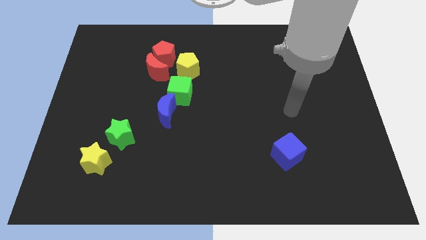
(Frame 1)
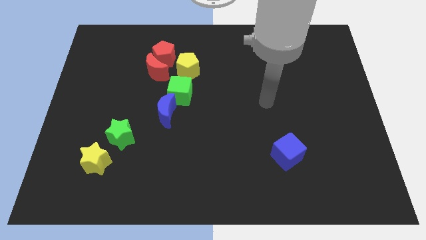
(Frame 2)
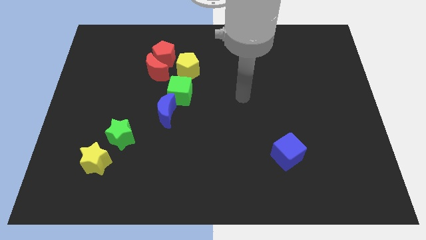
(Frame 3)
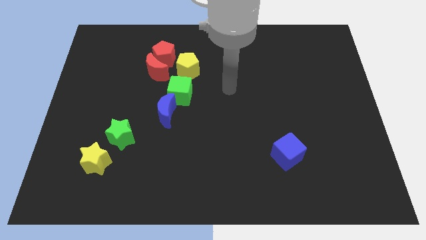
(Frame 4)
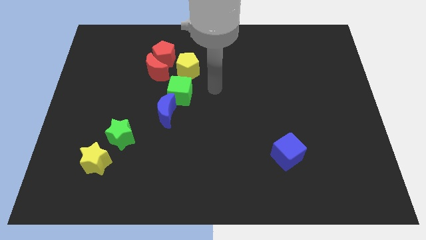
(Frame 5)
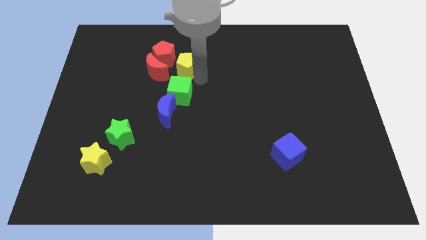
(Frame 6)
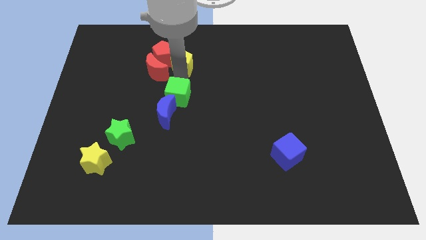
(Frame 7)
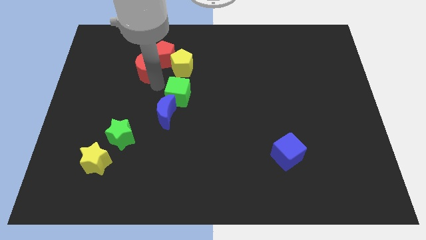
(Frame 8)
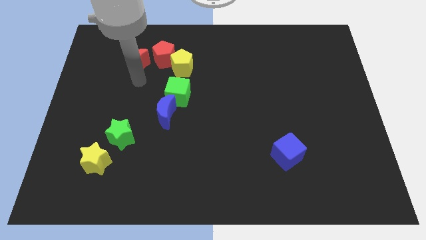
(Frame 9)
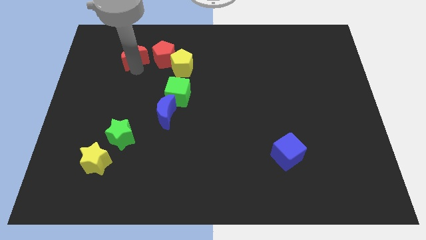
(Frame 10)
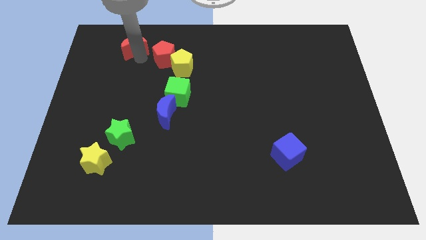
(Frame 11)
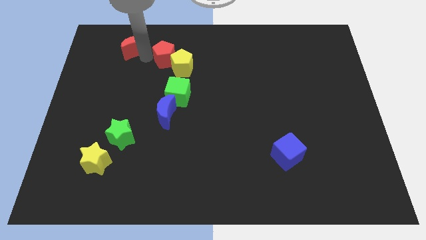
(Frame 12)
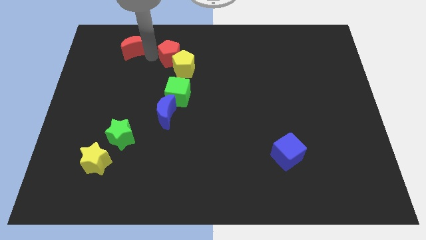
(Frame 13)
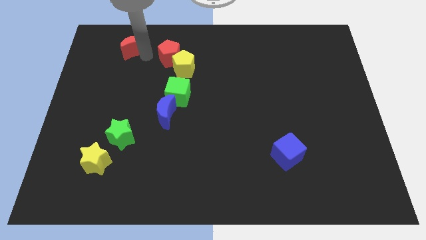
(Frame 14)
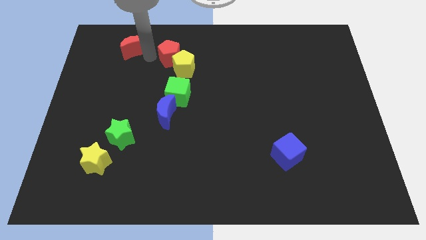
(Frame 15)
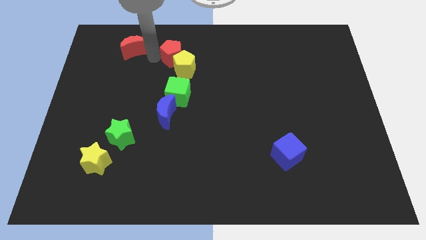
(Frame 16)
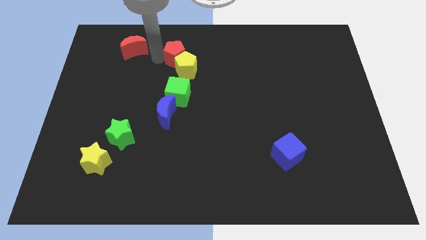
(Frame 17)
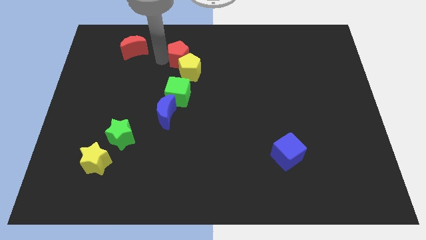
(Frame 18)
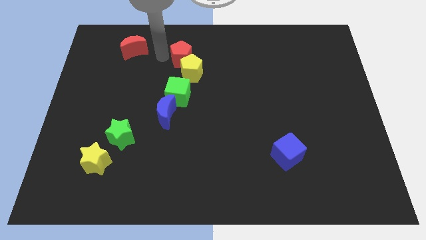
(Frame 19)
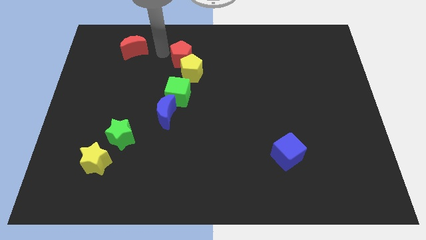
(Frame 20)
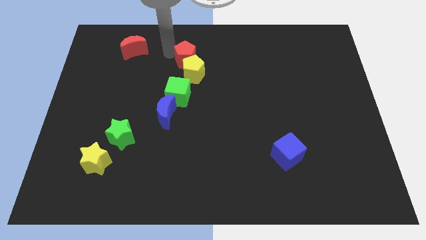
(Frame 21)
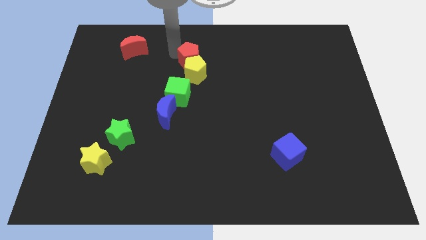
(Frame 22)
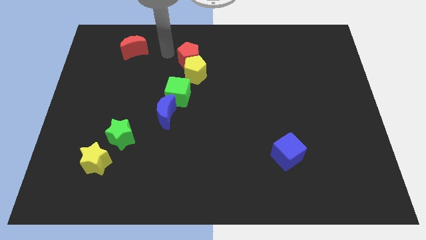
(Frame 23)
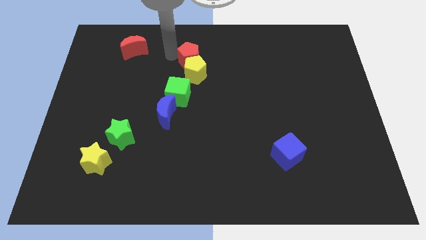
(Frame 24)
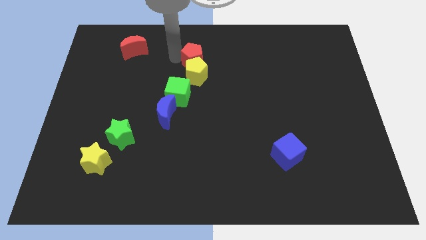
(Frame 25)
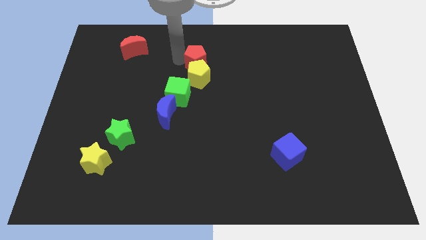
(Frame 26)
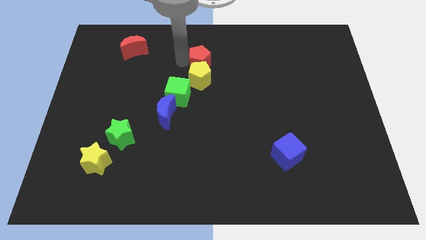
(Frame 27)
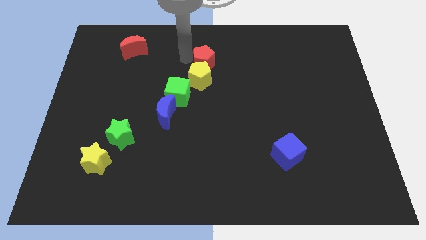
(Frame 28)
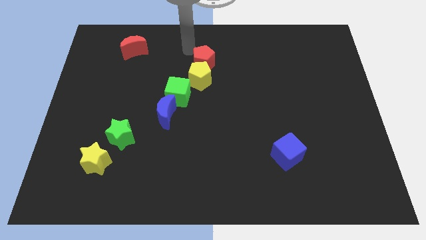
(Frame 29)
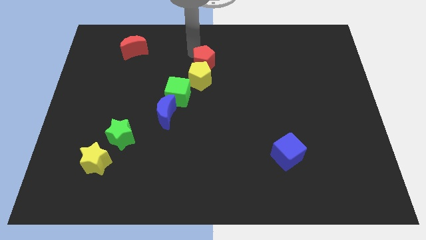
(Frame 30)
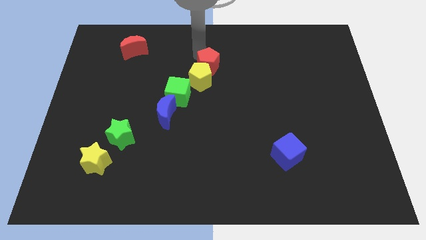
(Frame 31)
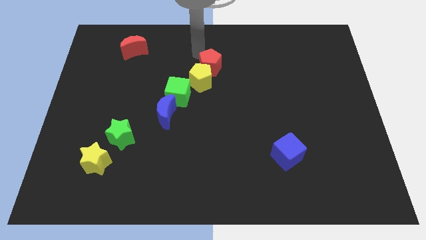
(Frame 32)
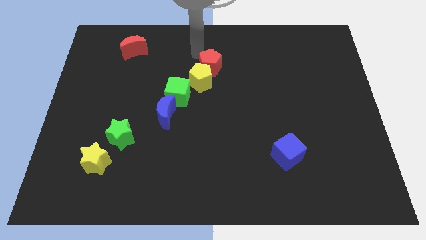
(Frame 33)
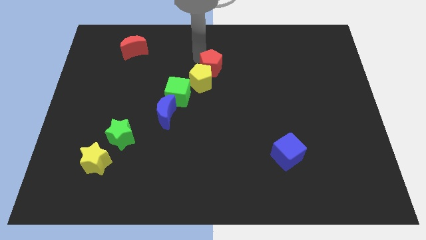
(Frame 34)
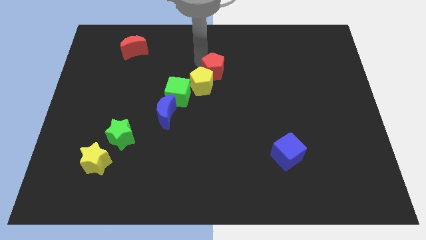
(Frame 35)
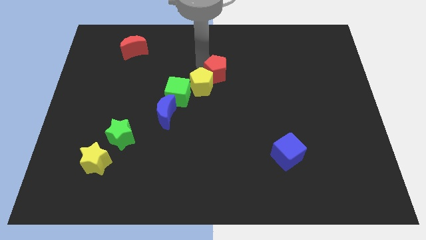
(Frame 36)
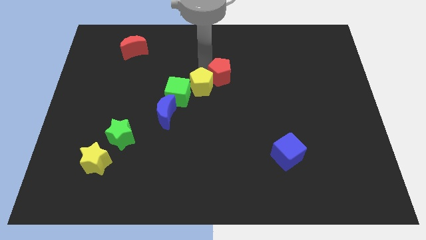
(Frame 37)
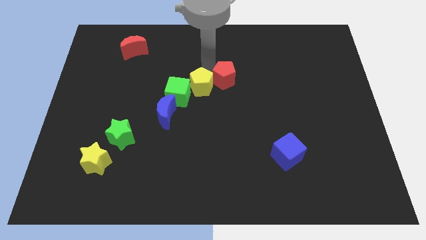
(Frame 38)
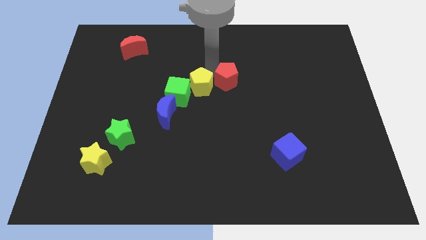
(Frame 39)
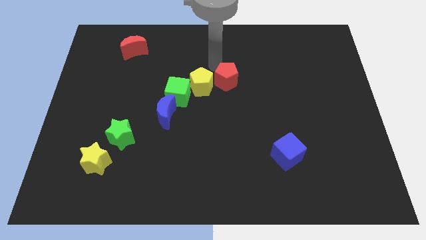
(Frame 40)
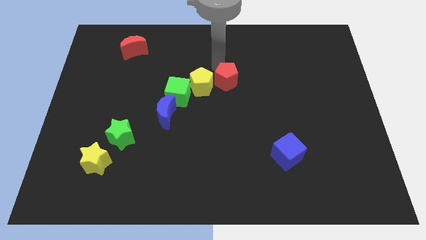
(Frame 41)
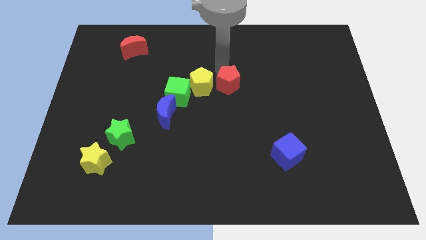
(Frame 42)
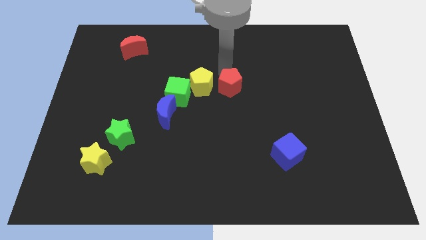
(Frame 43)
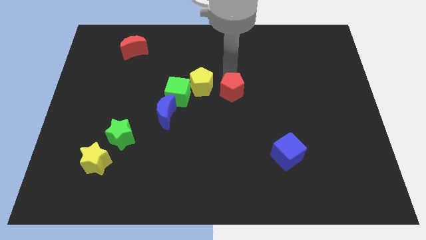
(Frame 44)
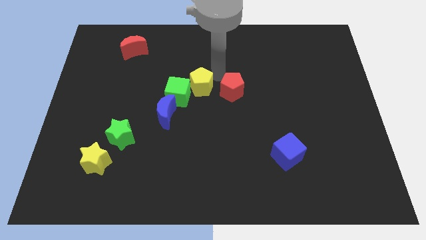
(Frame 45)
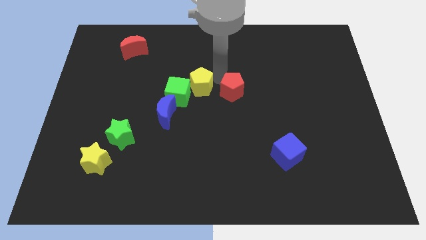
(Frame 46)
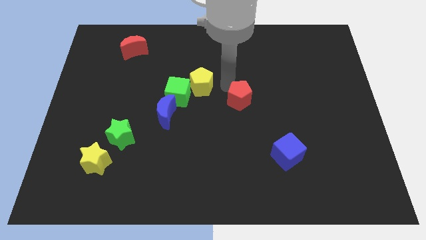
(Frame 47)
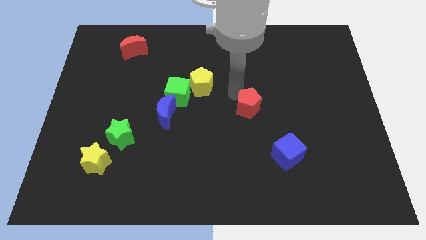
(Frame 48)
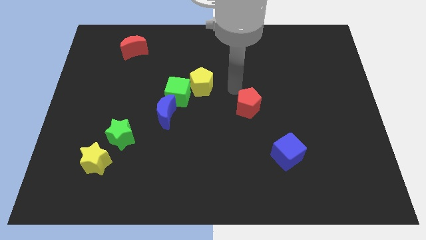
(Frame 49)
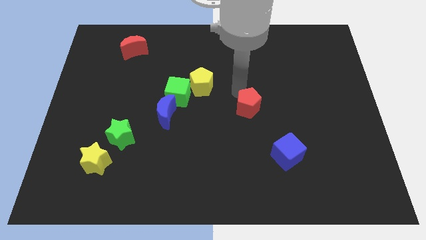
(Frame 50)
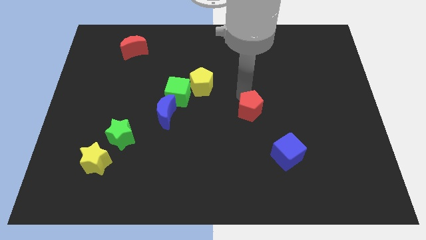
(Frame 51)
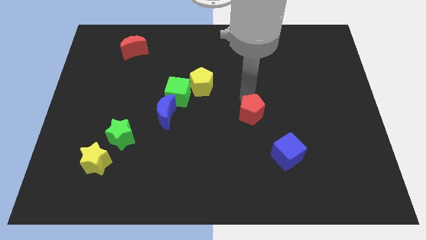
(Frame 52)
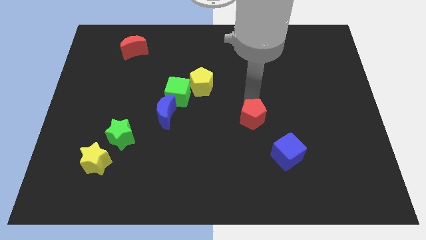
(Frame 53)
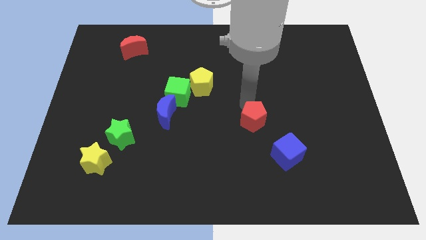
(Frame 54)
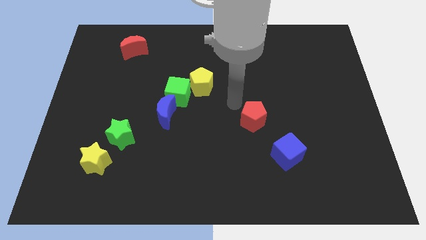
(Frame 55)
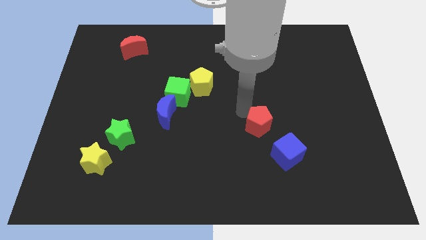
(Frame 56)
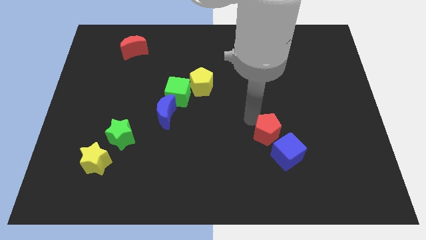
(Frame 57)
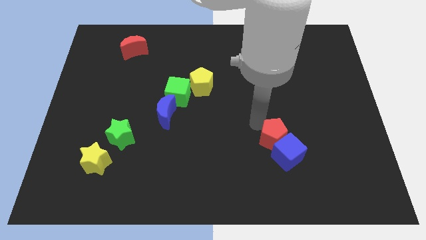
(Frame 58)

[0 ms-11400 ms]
slide the red pentagon next to the blue cube
